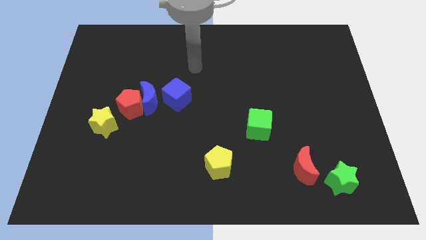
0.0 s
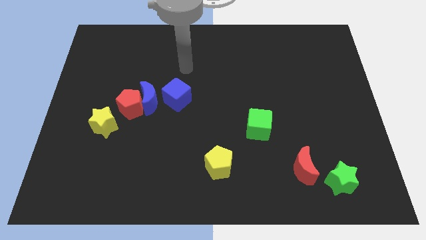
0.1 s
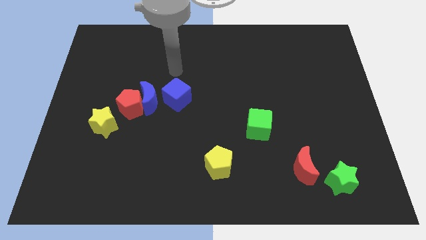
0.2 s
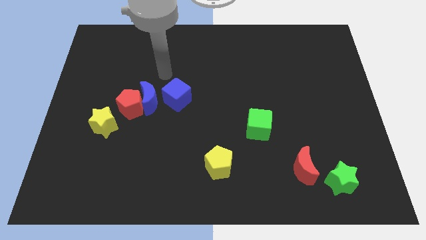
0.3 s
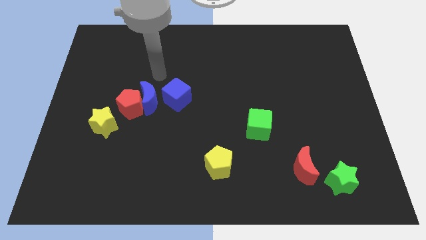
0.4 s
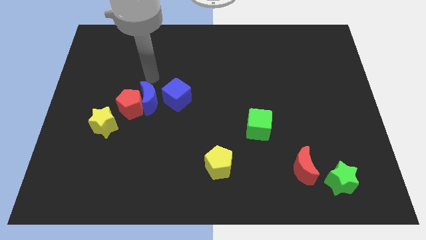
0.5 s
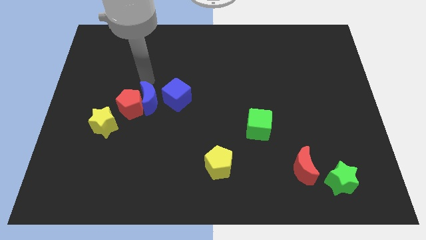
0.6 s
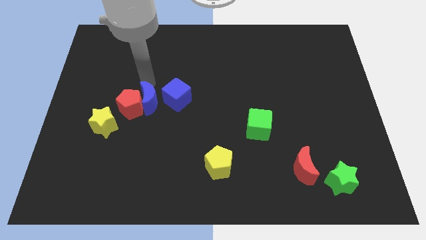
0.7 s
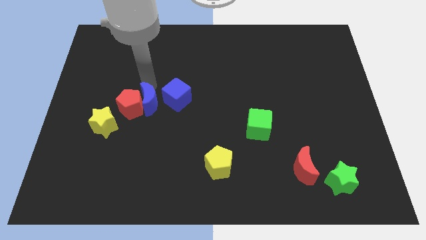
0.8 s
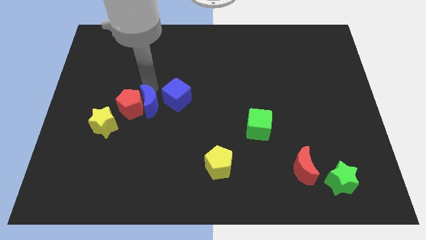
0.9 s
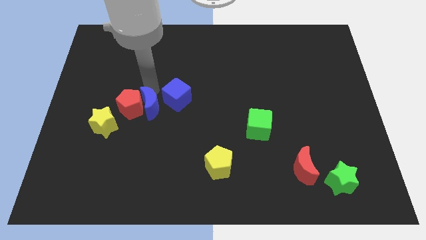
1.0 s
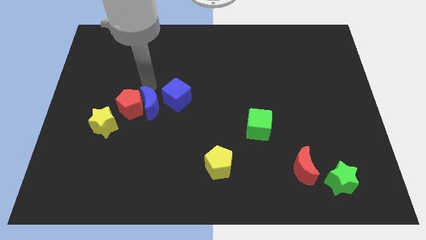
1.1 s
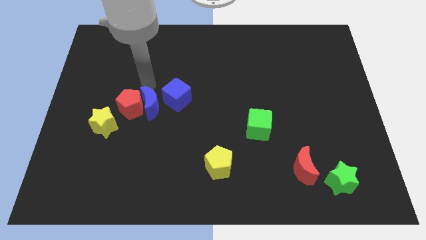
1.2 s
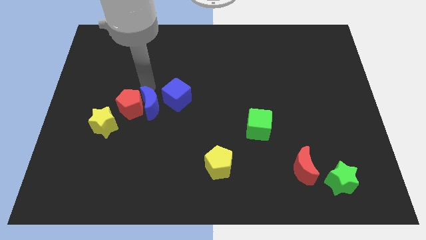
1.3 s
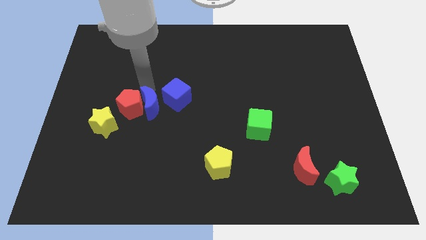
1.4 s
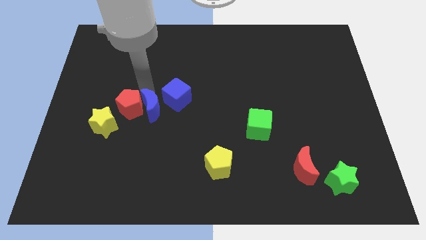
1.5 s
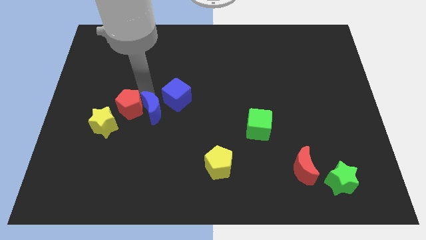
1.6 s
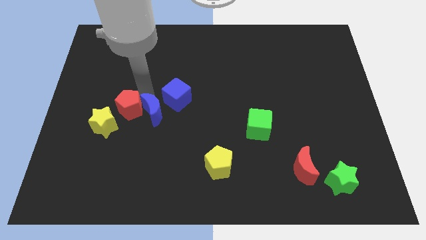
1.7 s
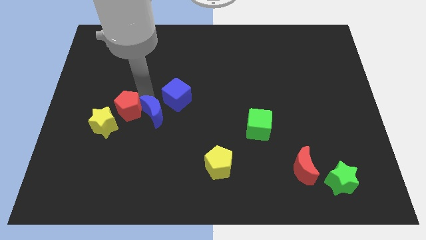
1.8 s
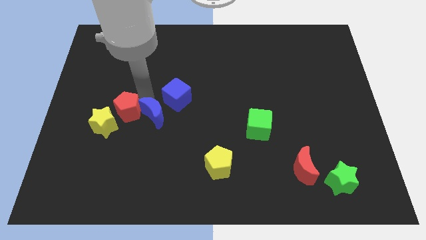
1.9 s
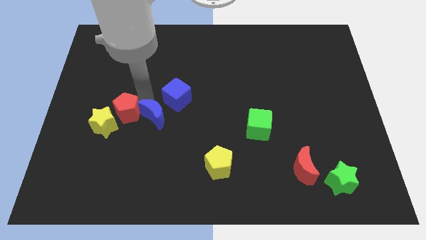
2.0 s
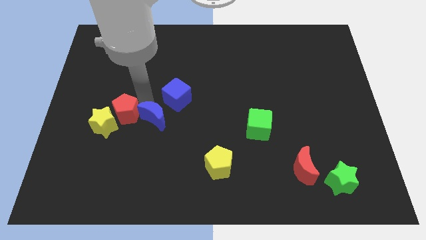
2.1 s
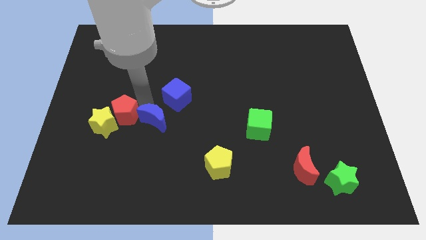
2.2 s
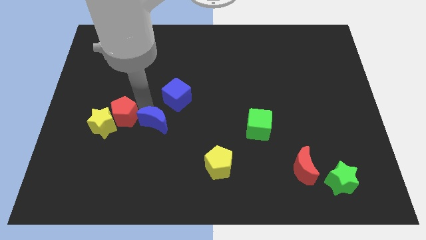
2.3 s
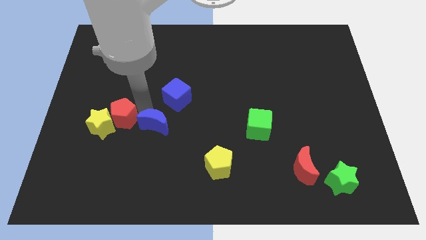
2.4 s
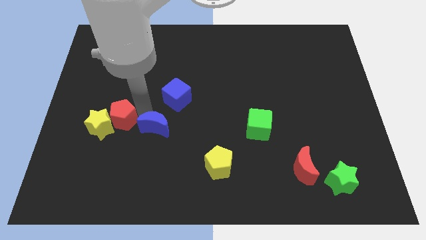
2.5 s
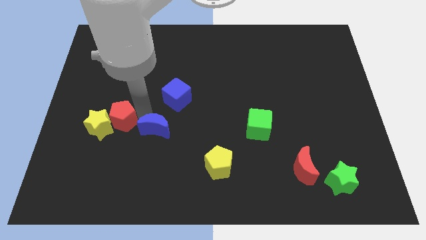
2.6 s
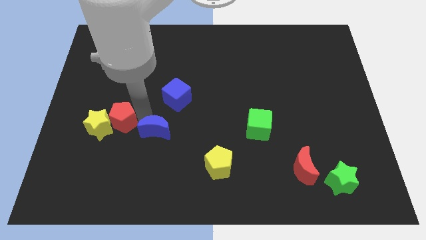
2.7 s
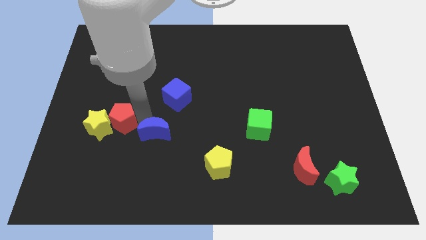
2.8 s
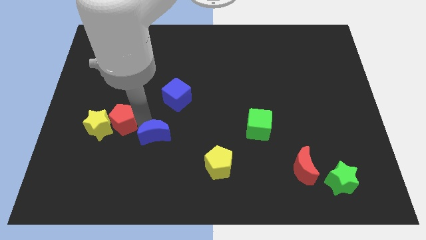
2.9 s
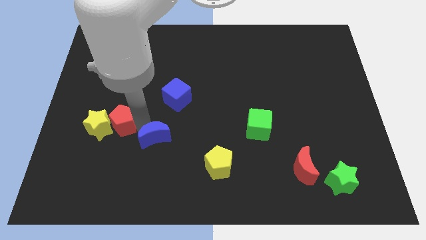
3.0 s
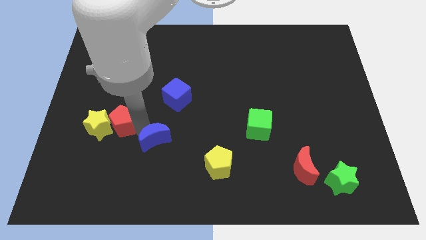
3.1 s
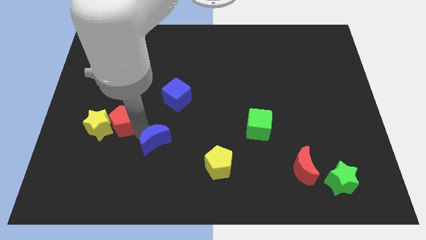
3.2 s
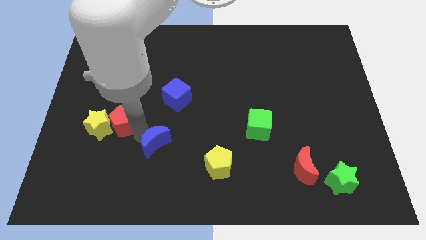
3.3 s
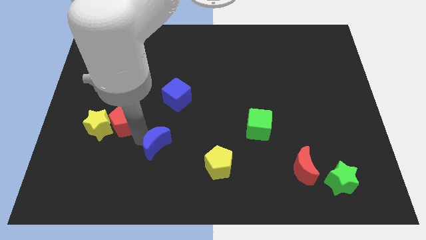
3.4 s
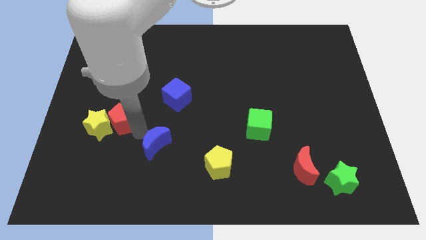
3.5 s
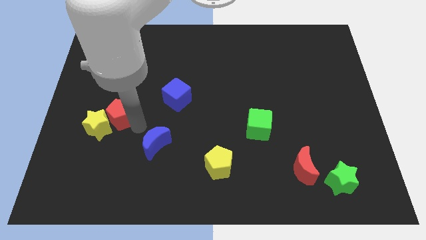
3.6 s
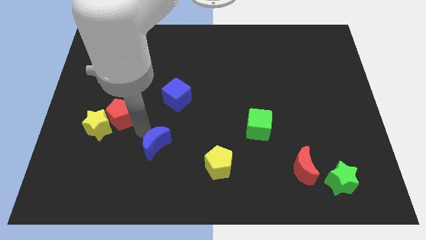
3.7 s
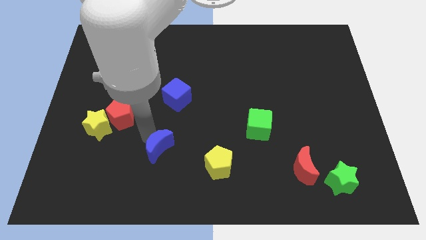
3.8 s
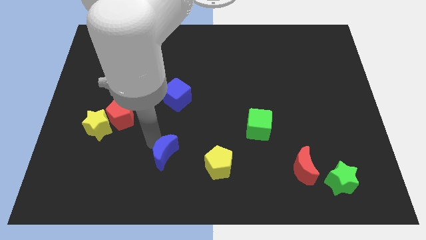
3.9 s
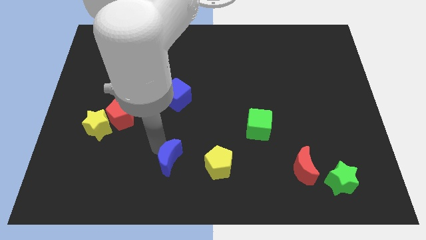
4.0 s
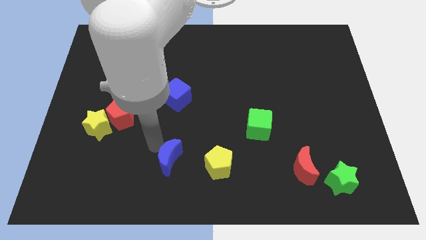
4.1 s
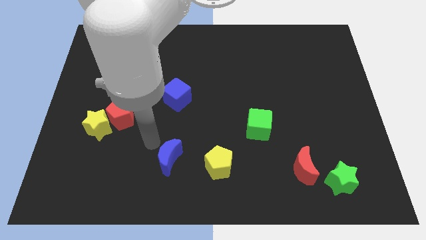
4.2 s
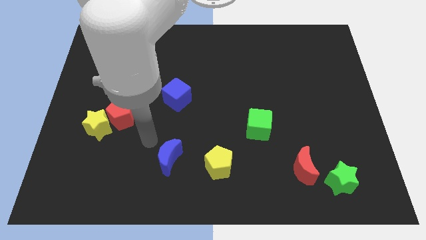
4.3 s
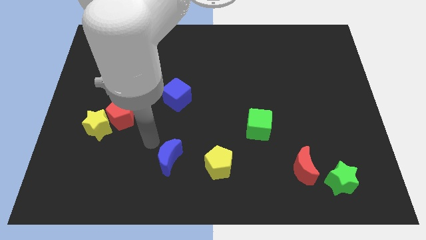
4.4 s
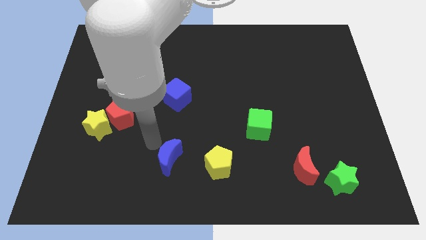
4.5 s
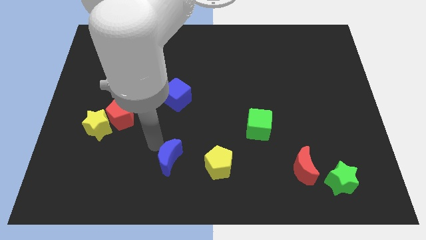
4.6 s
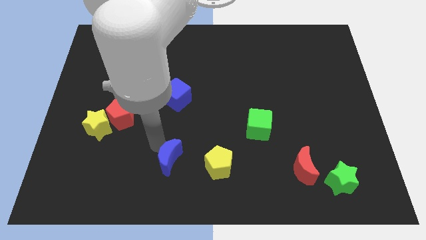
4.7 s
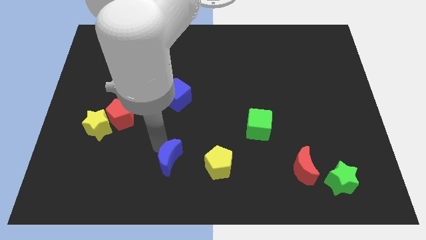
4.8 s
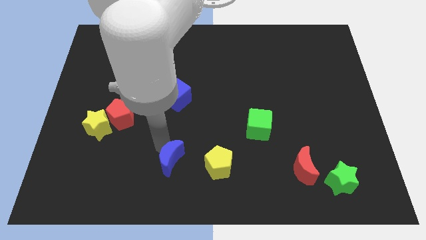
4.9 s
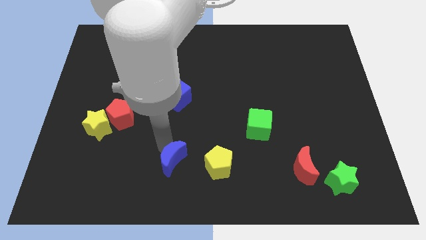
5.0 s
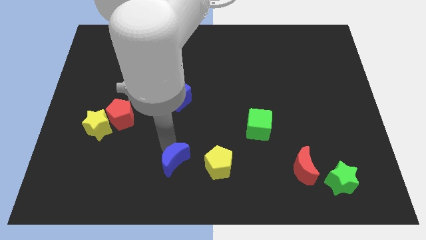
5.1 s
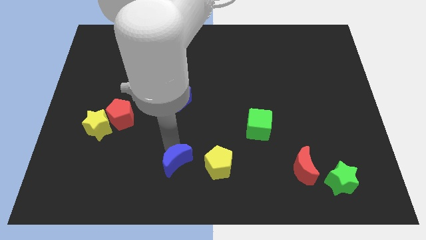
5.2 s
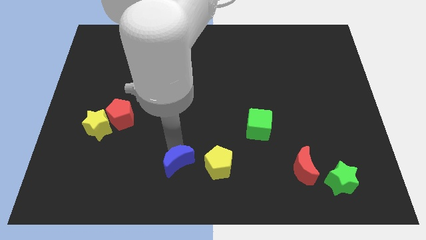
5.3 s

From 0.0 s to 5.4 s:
put the blue moon to the bottom side

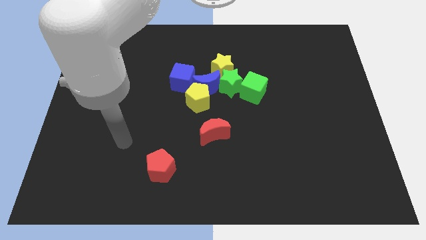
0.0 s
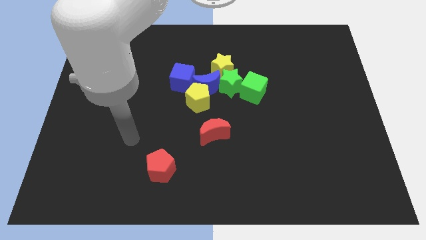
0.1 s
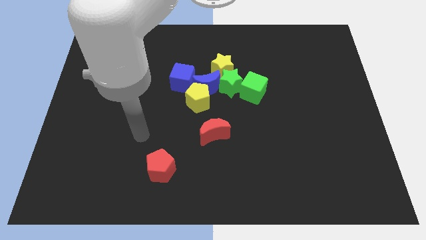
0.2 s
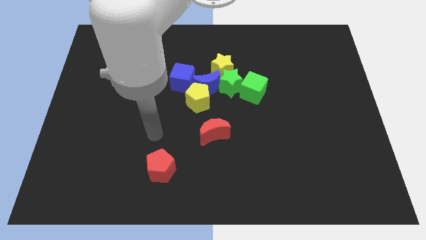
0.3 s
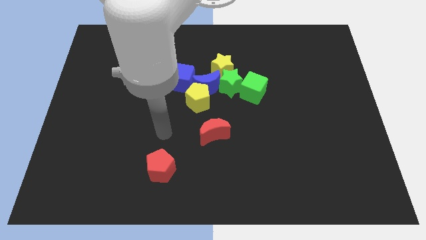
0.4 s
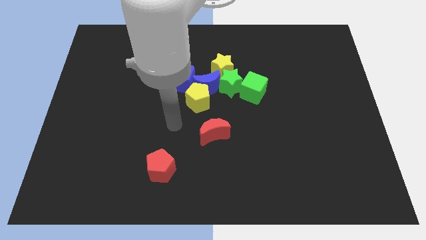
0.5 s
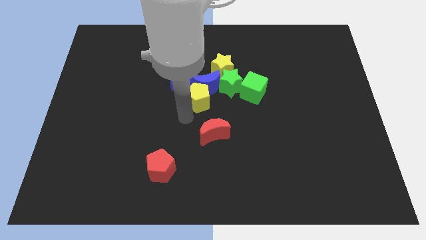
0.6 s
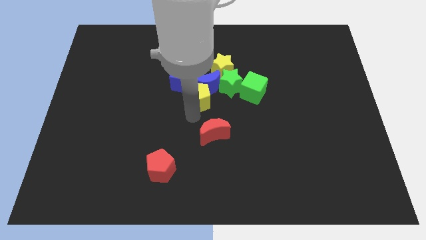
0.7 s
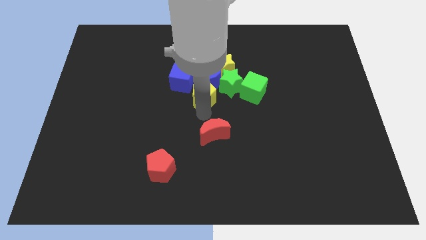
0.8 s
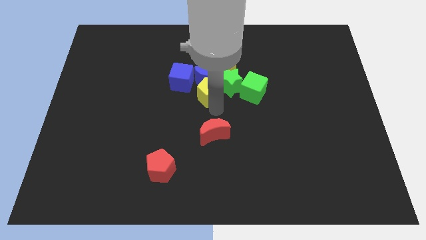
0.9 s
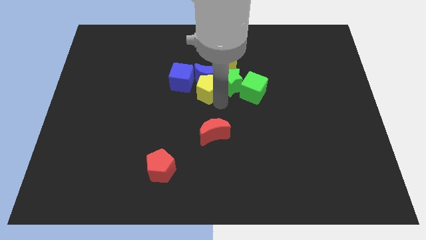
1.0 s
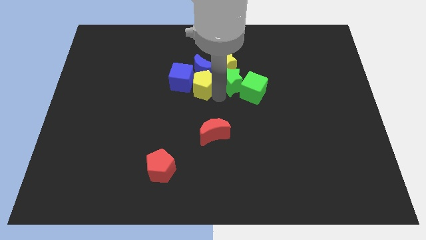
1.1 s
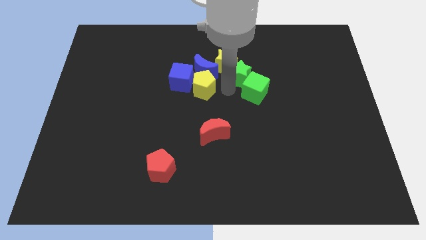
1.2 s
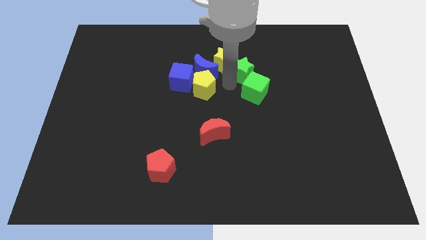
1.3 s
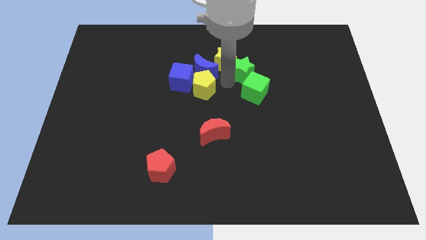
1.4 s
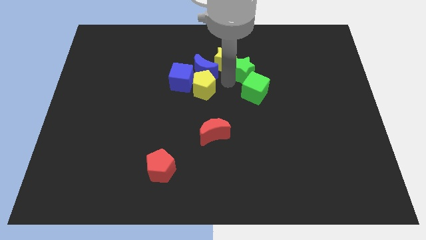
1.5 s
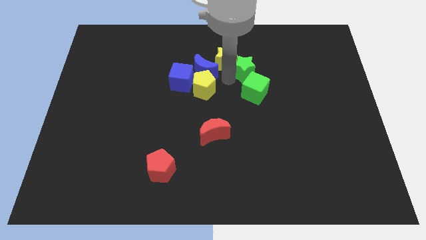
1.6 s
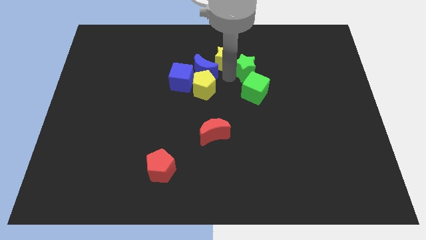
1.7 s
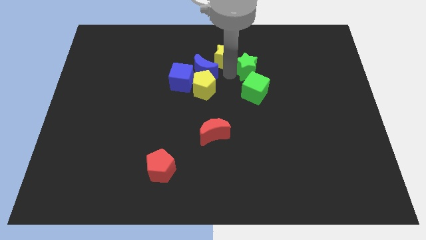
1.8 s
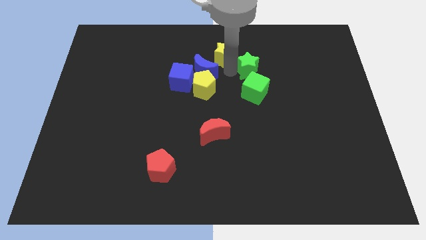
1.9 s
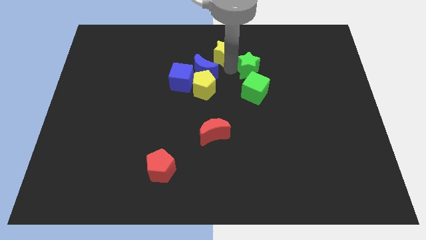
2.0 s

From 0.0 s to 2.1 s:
slide the yellow star to the towards your base
